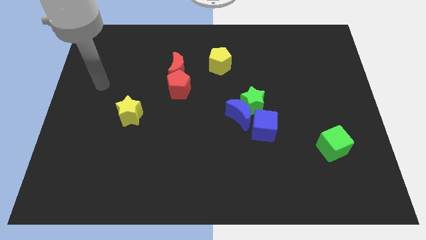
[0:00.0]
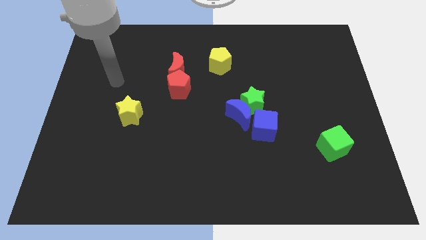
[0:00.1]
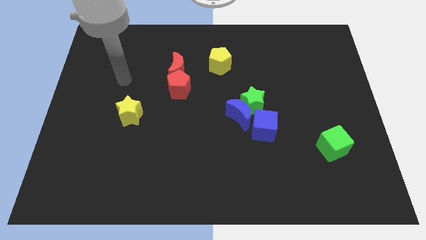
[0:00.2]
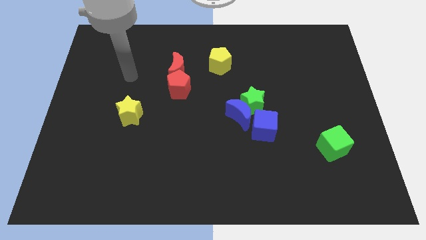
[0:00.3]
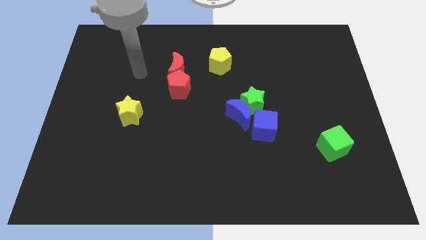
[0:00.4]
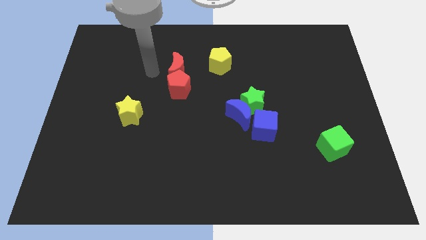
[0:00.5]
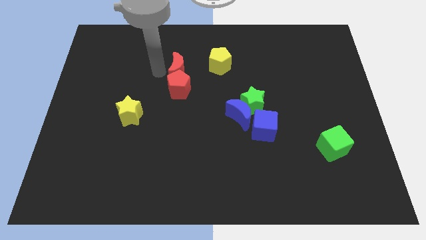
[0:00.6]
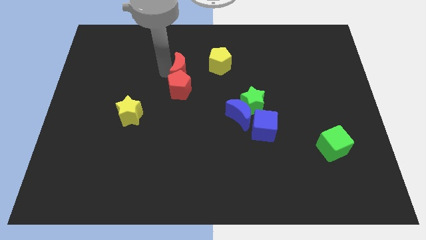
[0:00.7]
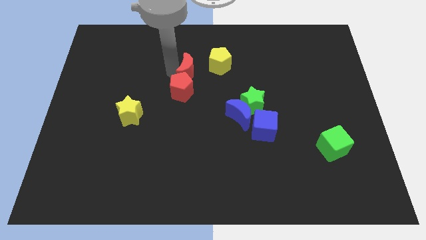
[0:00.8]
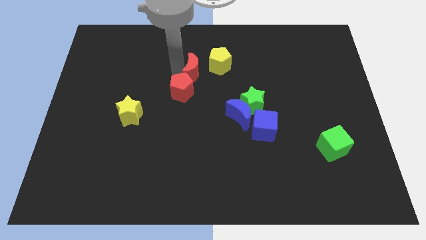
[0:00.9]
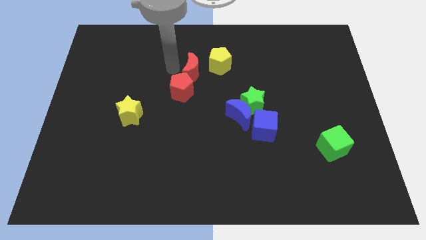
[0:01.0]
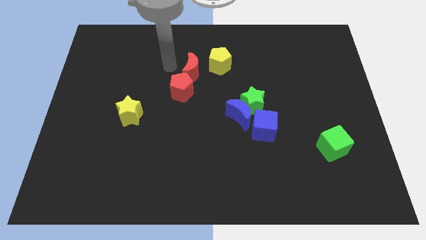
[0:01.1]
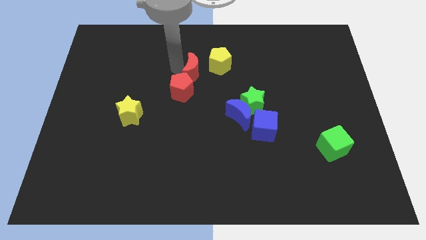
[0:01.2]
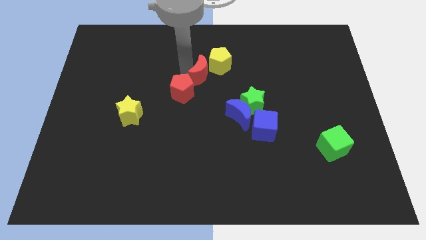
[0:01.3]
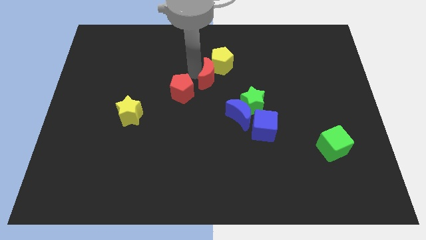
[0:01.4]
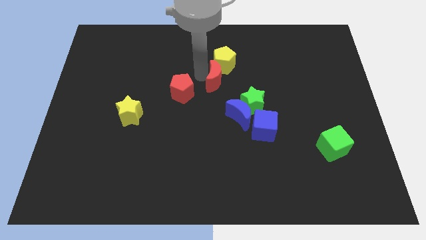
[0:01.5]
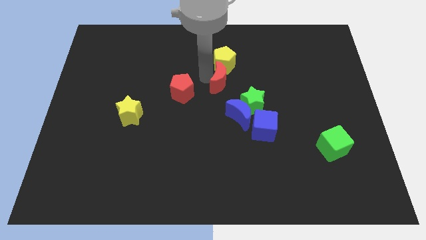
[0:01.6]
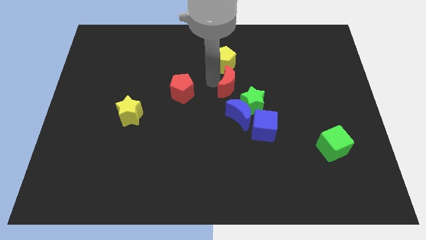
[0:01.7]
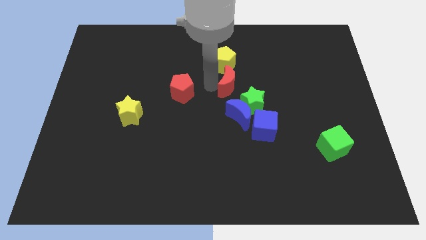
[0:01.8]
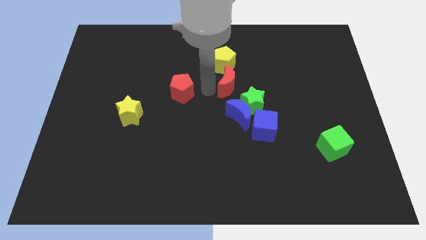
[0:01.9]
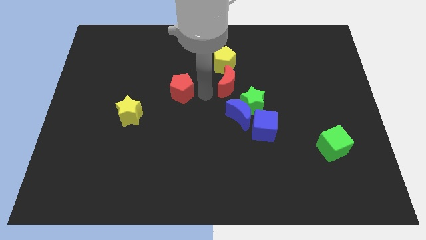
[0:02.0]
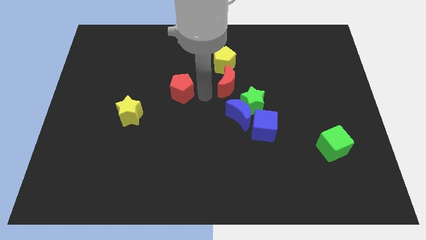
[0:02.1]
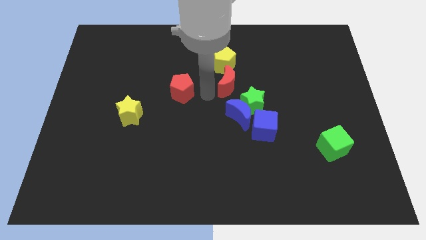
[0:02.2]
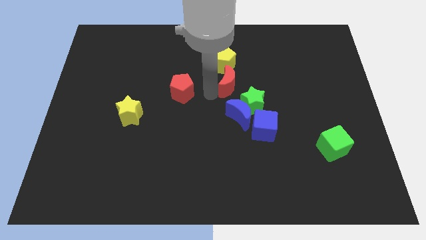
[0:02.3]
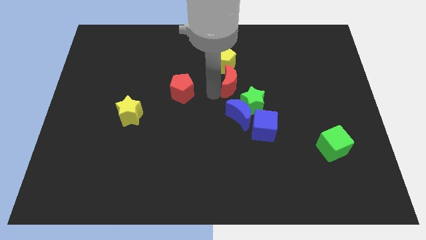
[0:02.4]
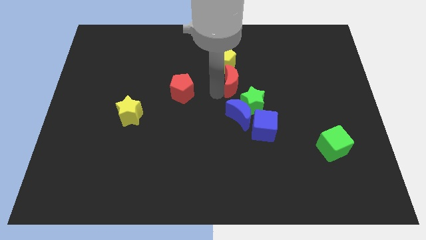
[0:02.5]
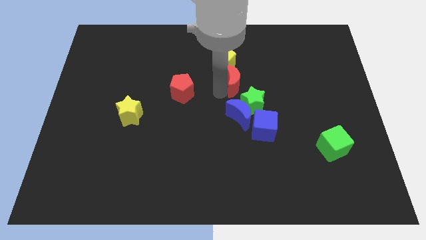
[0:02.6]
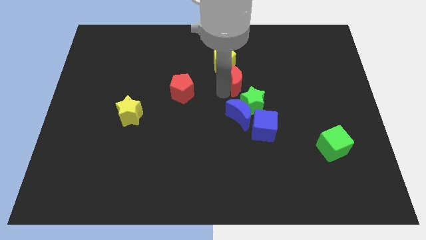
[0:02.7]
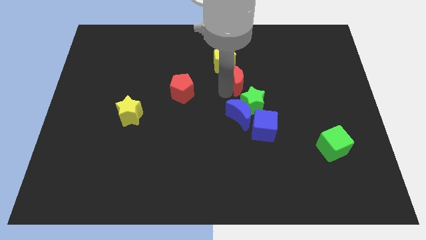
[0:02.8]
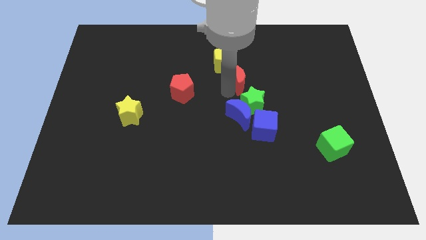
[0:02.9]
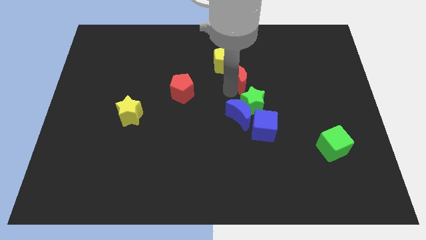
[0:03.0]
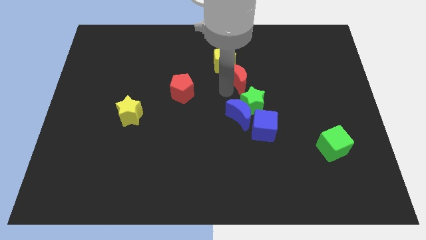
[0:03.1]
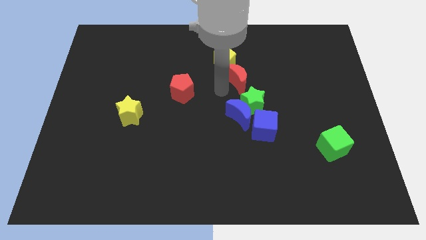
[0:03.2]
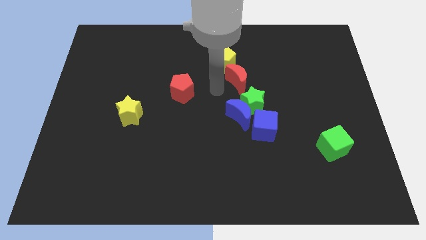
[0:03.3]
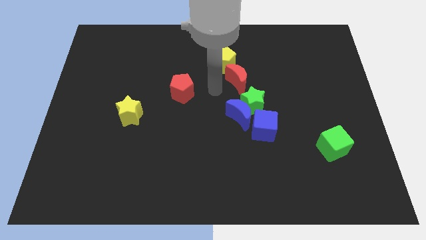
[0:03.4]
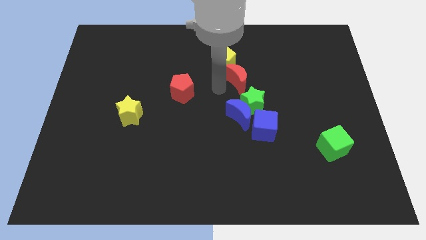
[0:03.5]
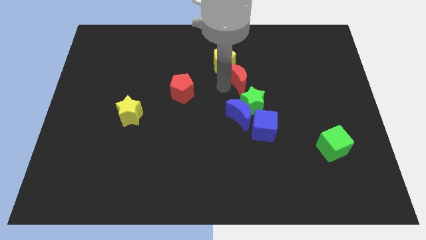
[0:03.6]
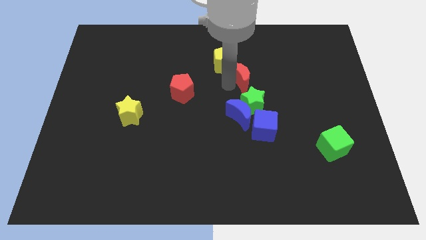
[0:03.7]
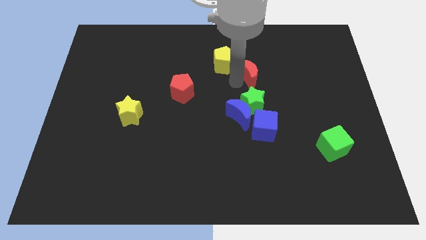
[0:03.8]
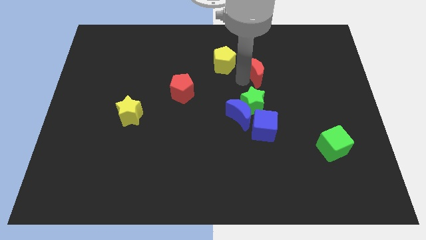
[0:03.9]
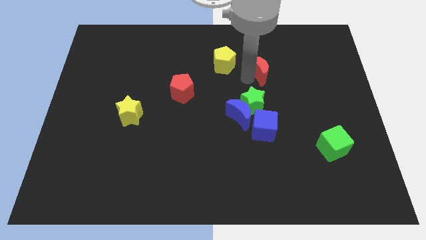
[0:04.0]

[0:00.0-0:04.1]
push the red moon to the right

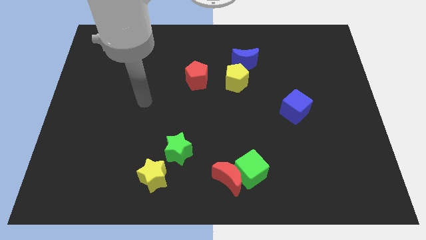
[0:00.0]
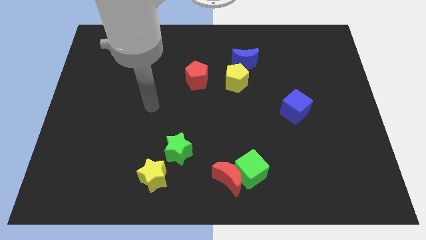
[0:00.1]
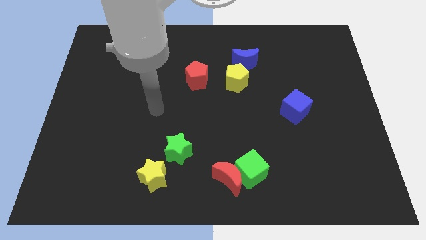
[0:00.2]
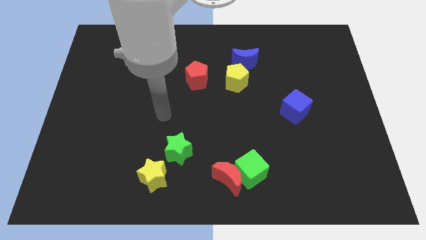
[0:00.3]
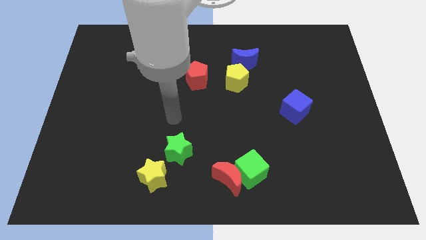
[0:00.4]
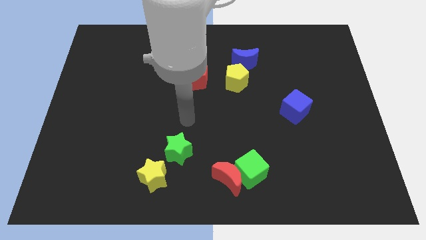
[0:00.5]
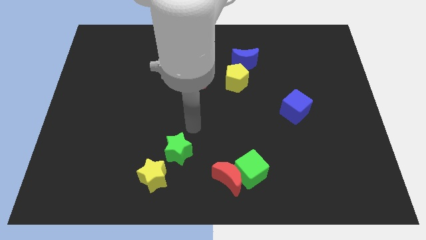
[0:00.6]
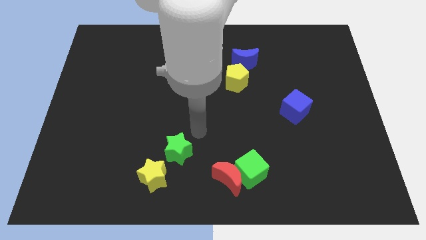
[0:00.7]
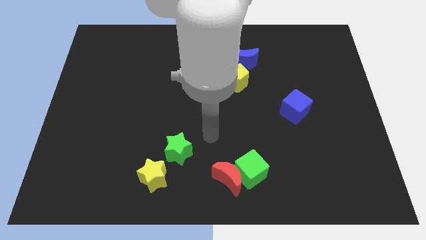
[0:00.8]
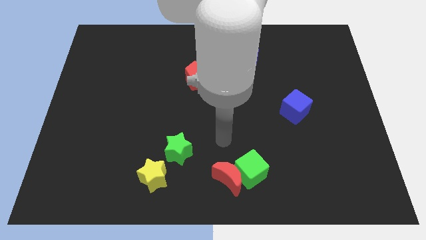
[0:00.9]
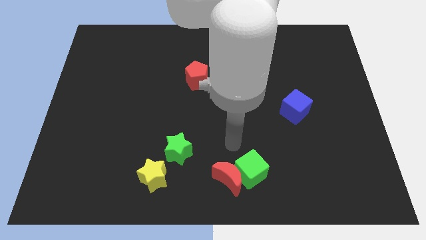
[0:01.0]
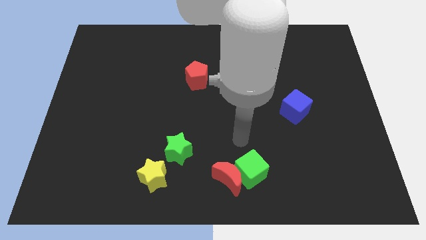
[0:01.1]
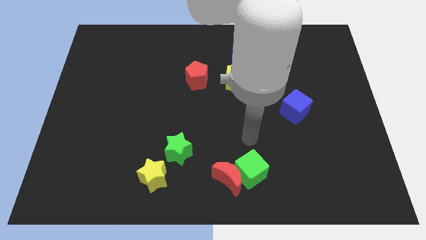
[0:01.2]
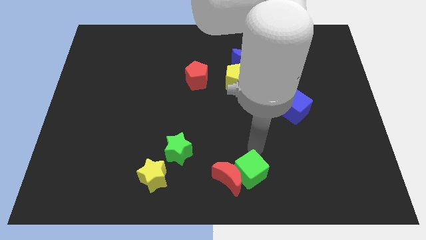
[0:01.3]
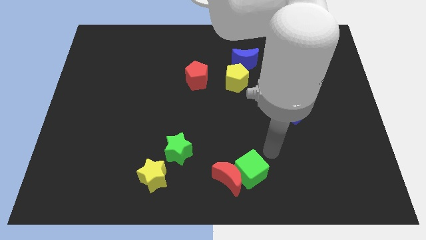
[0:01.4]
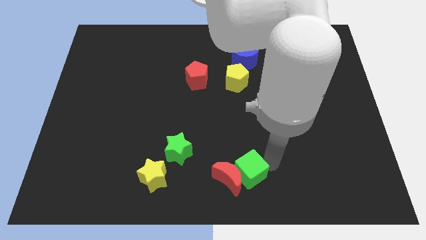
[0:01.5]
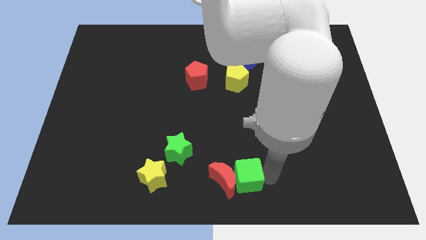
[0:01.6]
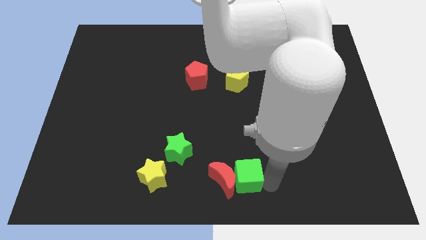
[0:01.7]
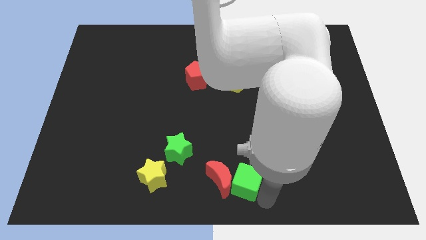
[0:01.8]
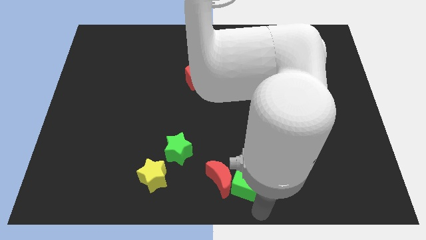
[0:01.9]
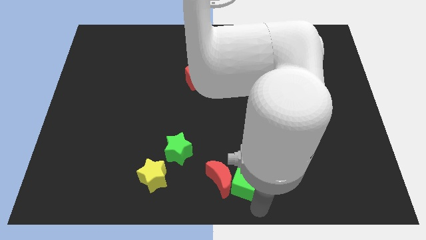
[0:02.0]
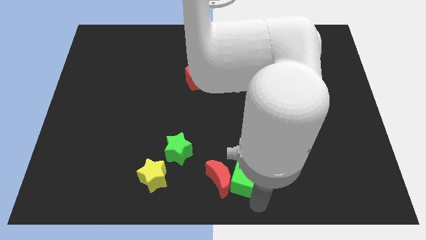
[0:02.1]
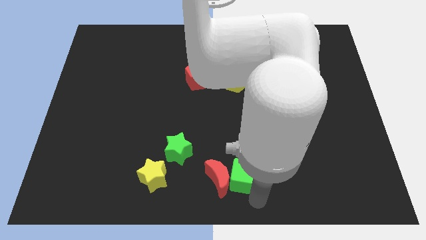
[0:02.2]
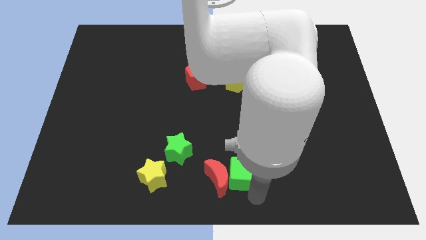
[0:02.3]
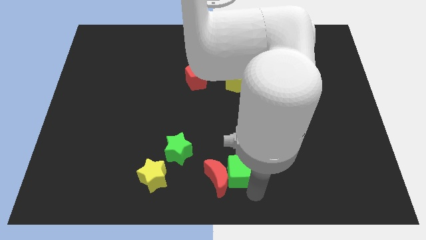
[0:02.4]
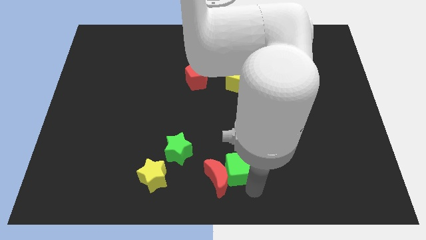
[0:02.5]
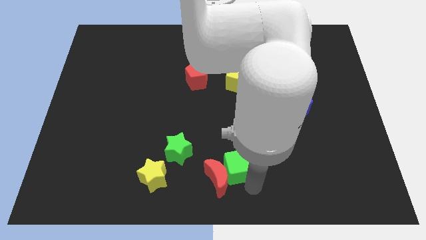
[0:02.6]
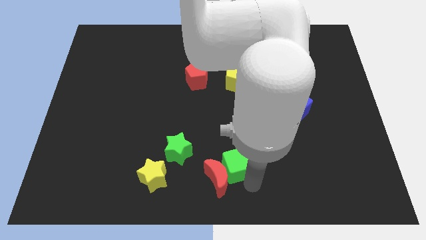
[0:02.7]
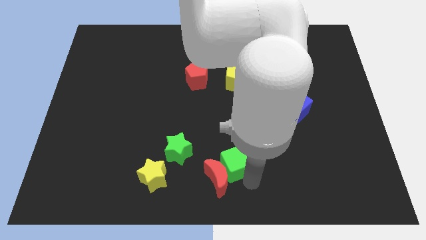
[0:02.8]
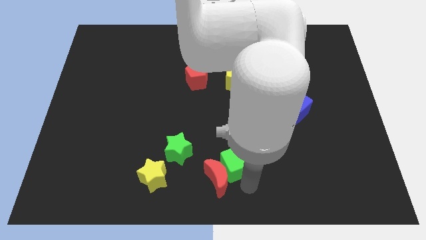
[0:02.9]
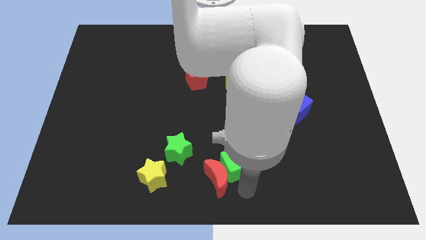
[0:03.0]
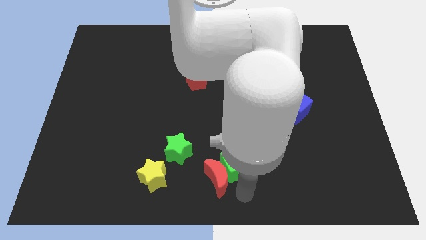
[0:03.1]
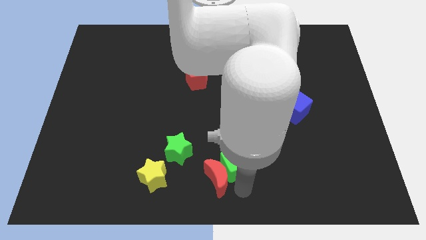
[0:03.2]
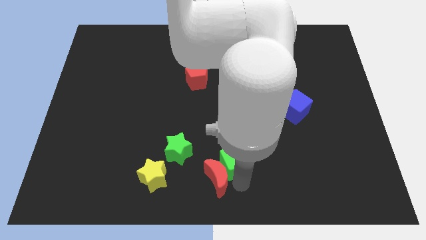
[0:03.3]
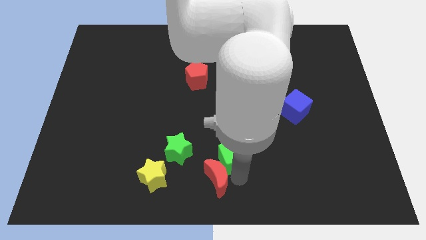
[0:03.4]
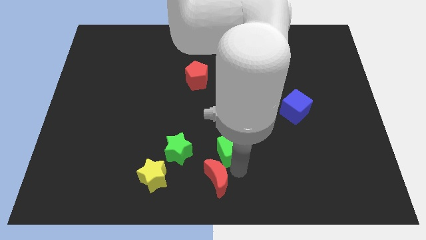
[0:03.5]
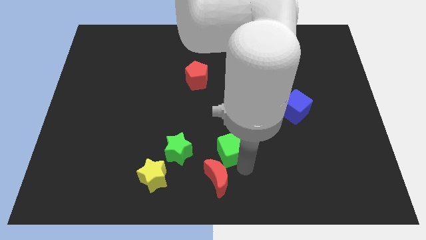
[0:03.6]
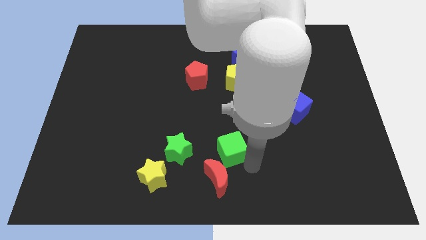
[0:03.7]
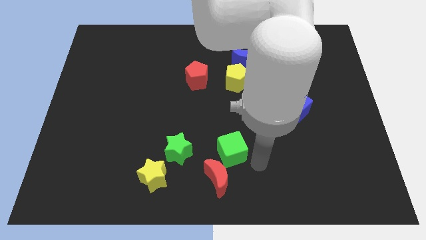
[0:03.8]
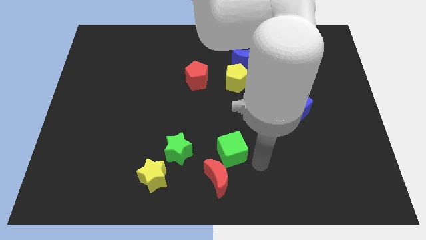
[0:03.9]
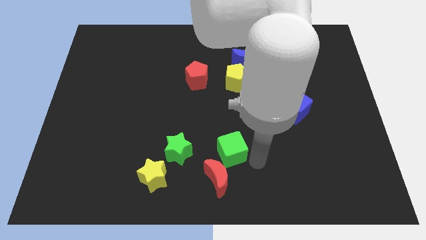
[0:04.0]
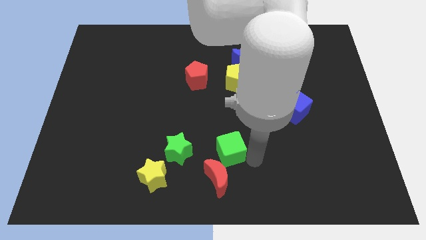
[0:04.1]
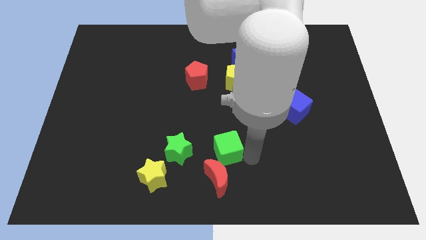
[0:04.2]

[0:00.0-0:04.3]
move the green cube a little diagonally upwards and to the left
